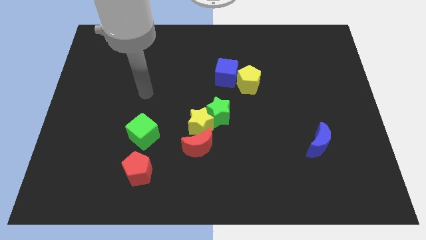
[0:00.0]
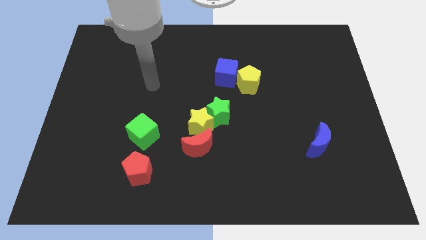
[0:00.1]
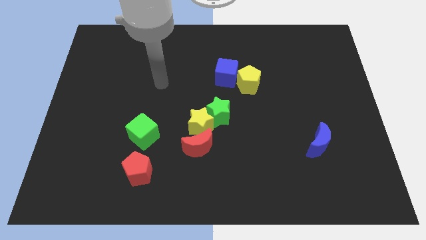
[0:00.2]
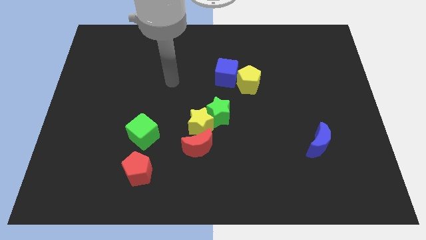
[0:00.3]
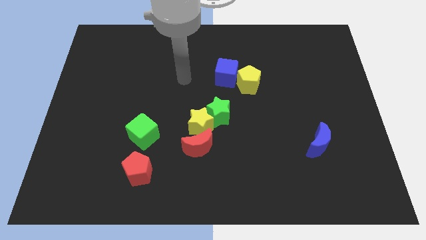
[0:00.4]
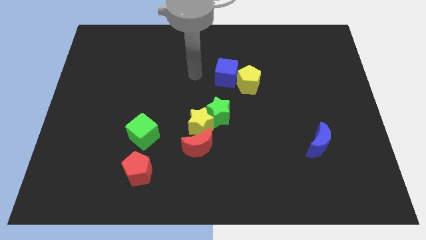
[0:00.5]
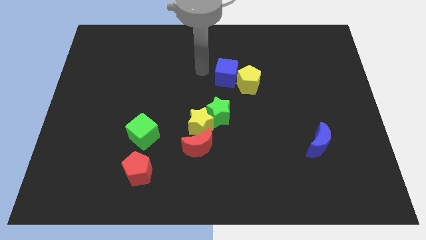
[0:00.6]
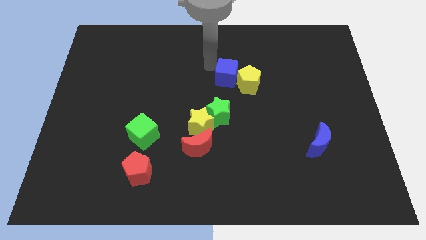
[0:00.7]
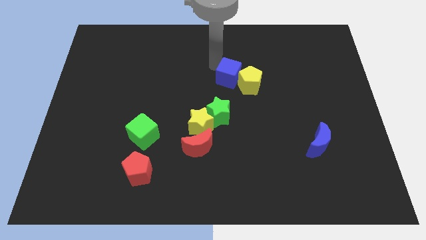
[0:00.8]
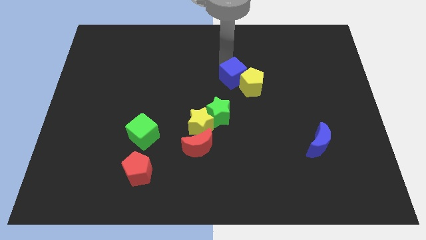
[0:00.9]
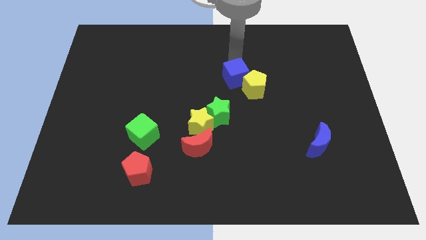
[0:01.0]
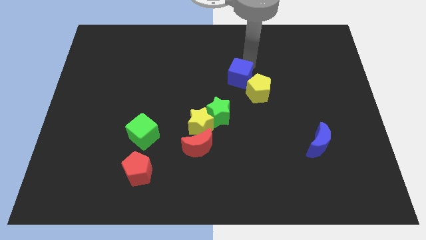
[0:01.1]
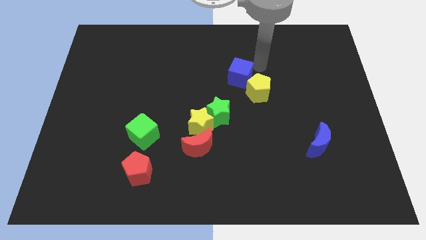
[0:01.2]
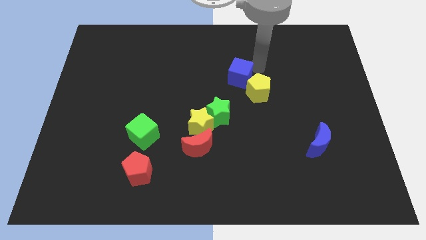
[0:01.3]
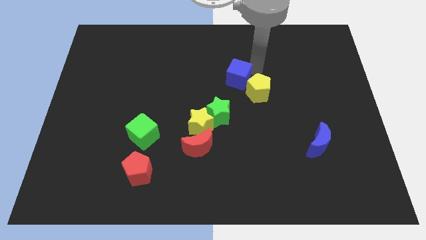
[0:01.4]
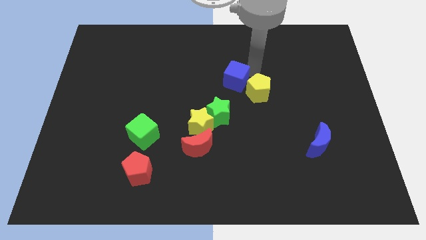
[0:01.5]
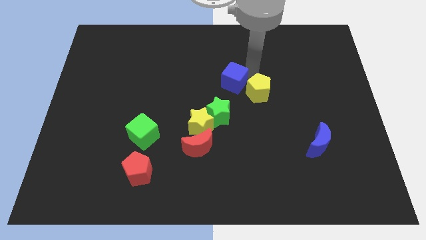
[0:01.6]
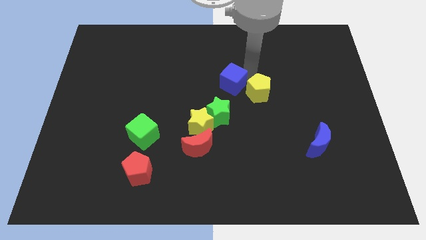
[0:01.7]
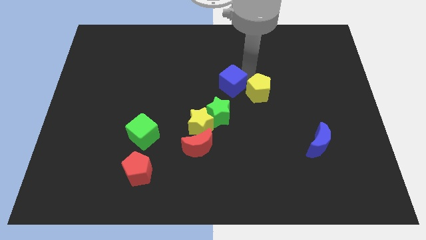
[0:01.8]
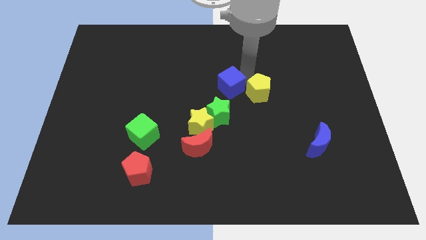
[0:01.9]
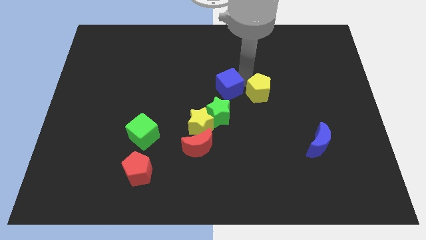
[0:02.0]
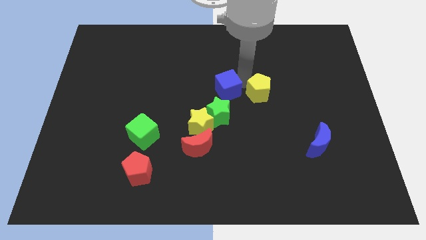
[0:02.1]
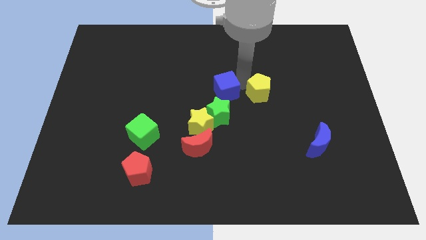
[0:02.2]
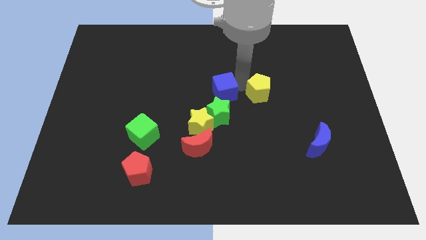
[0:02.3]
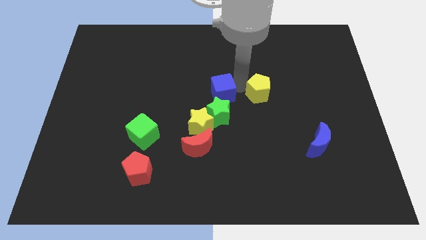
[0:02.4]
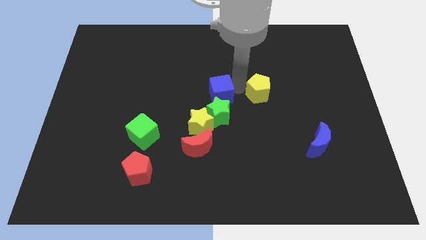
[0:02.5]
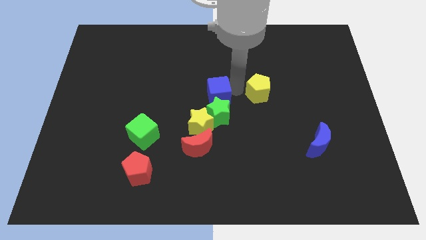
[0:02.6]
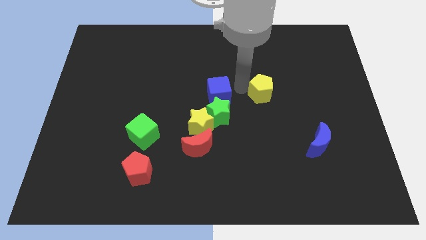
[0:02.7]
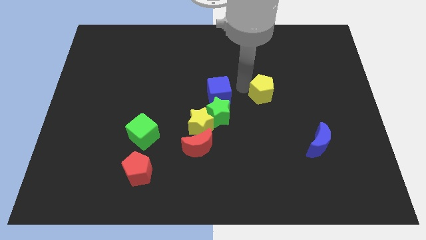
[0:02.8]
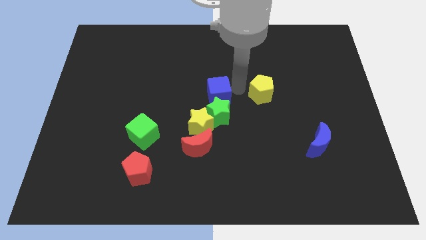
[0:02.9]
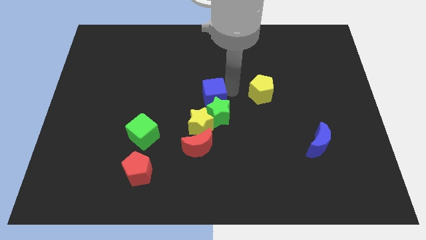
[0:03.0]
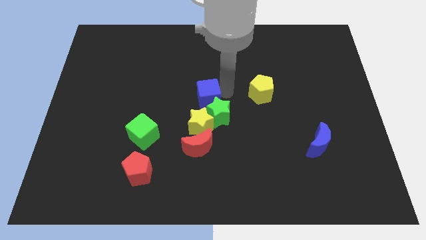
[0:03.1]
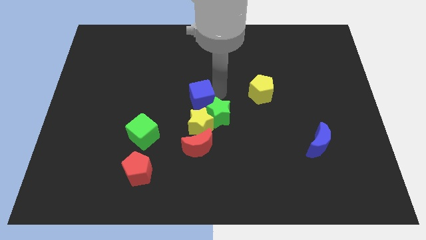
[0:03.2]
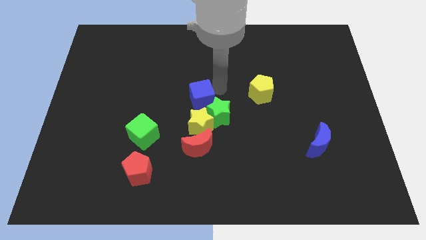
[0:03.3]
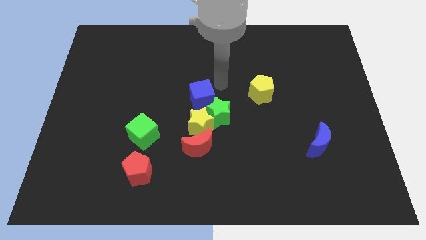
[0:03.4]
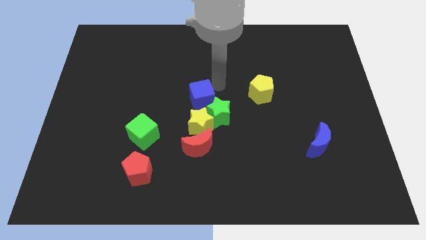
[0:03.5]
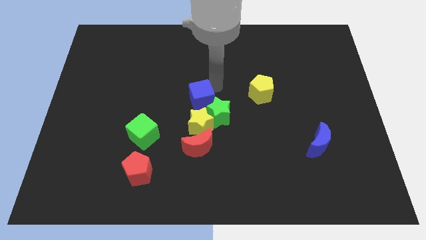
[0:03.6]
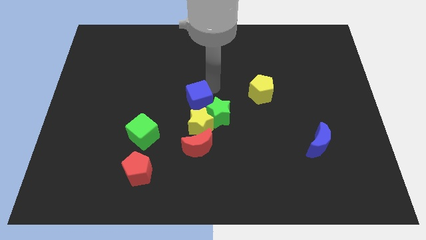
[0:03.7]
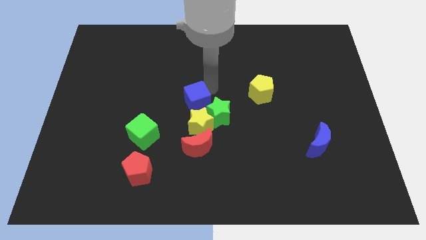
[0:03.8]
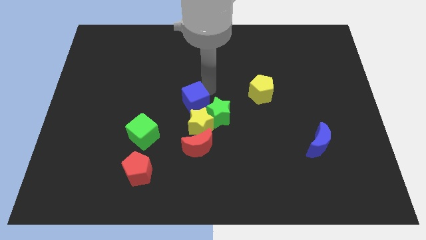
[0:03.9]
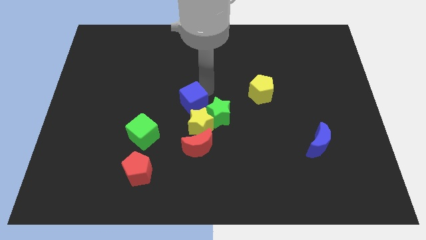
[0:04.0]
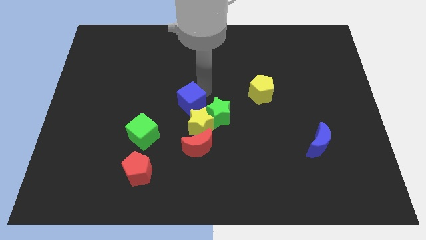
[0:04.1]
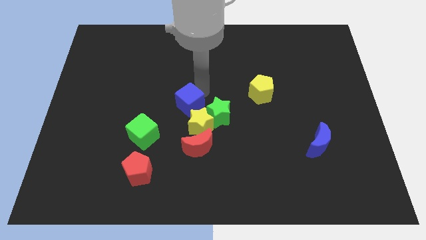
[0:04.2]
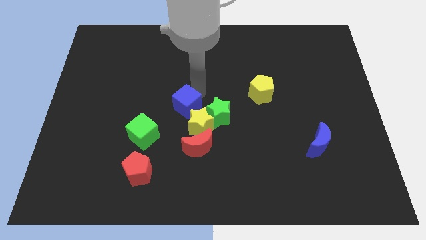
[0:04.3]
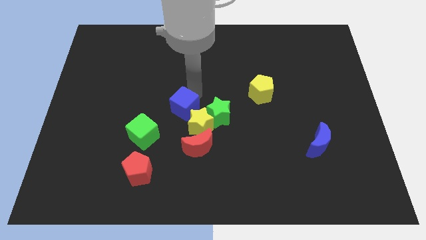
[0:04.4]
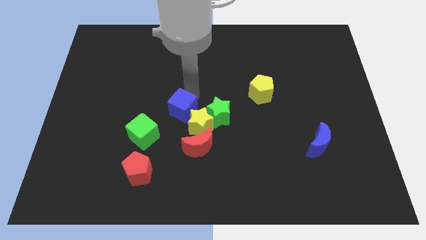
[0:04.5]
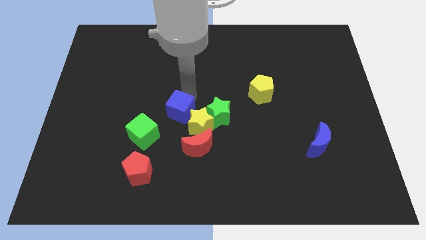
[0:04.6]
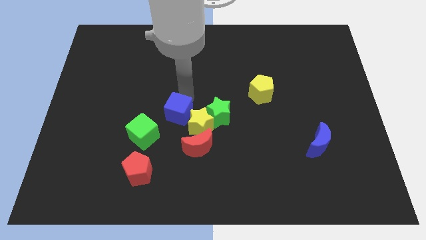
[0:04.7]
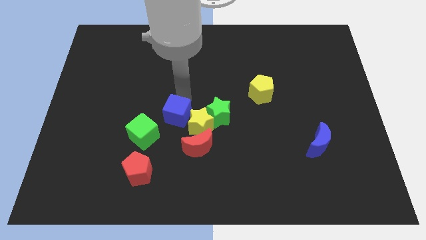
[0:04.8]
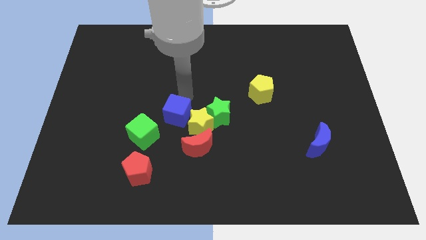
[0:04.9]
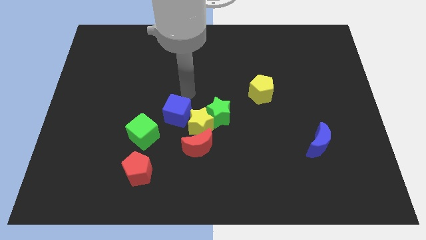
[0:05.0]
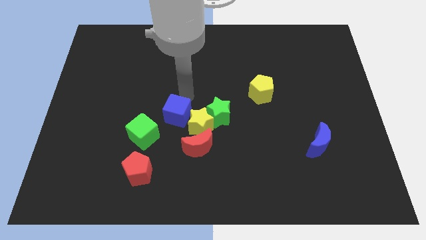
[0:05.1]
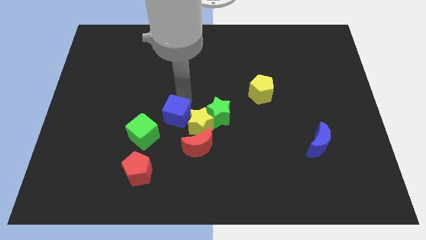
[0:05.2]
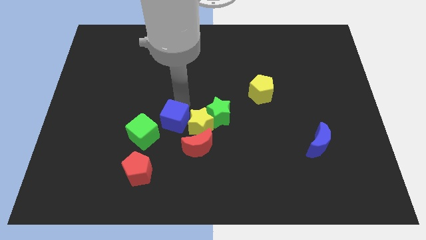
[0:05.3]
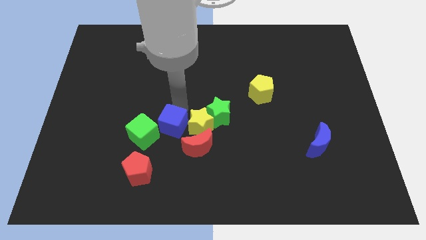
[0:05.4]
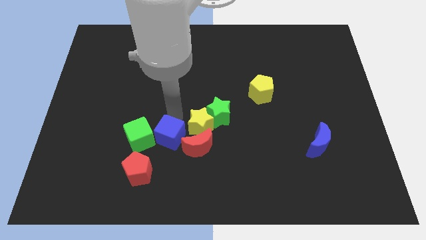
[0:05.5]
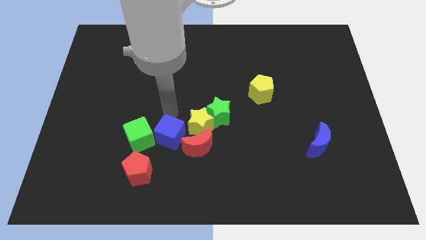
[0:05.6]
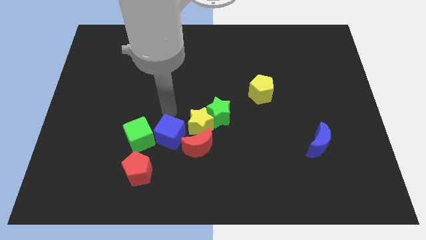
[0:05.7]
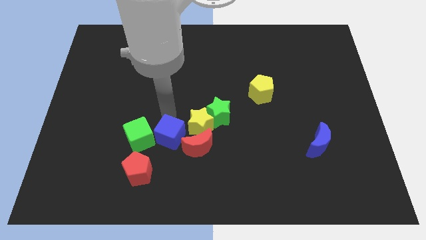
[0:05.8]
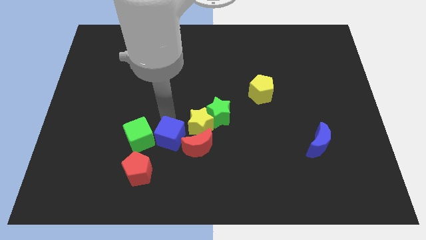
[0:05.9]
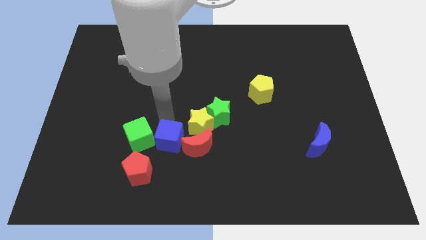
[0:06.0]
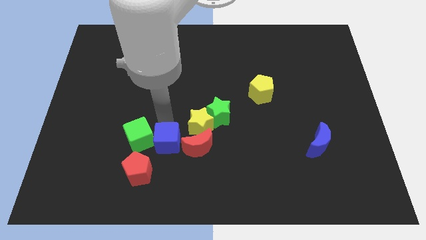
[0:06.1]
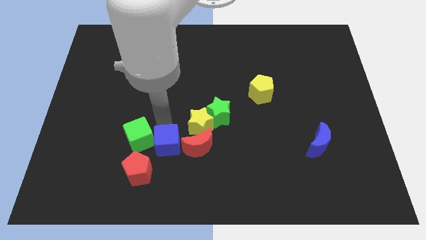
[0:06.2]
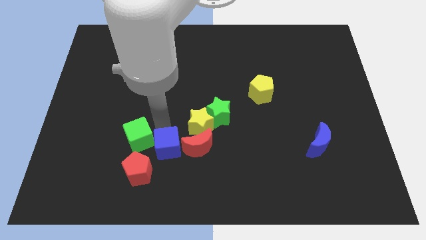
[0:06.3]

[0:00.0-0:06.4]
move the blue cube to the bottom left side of the red moon

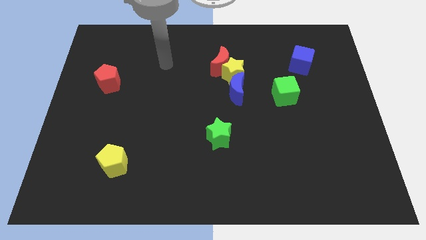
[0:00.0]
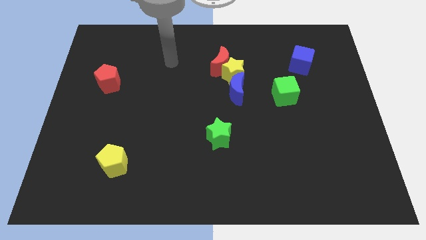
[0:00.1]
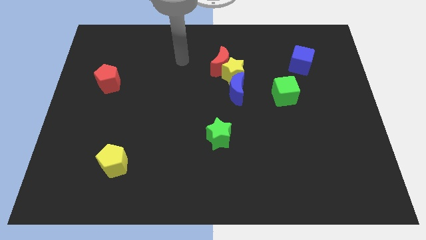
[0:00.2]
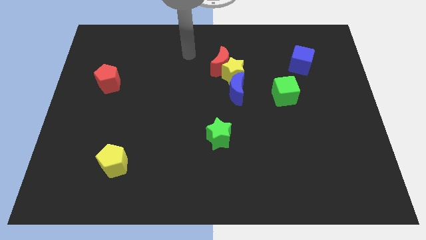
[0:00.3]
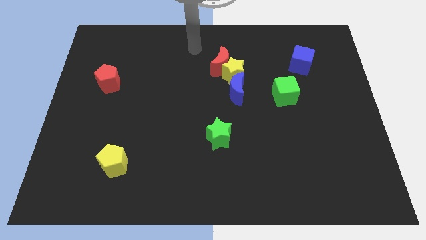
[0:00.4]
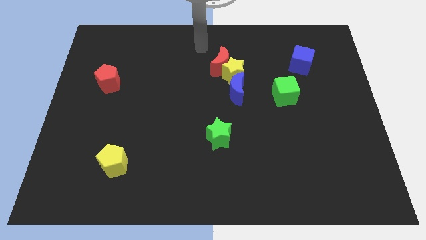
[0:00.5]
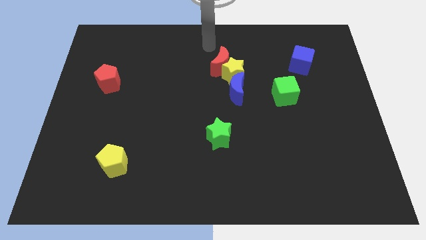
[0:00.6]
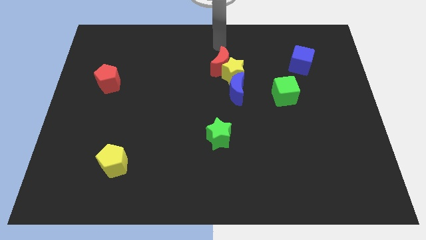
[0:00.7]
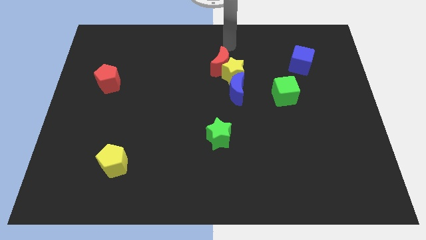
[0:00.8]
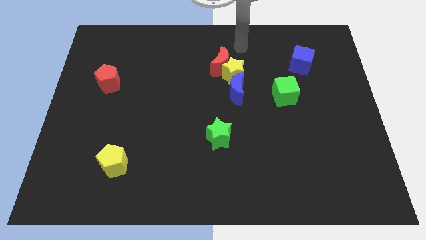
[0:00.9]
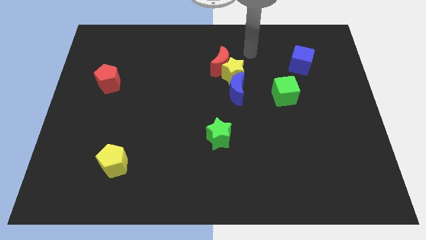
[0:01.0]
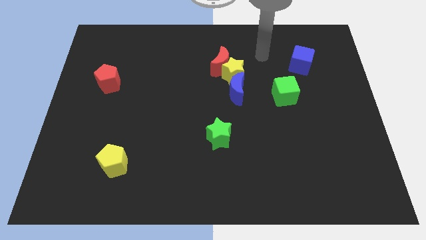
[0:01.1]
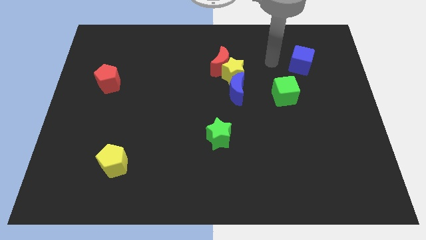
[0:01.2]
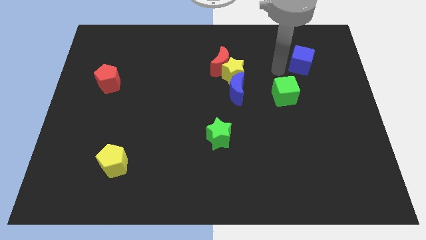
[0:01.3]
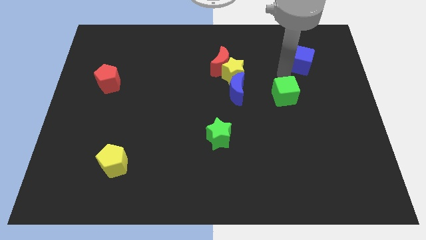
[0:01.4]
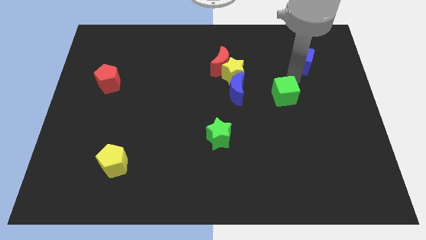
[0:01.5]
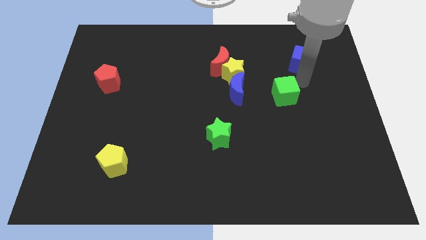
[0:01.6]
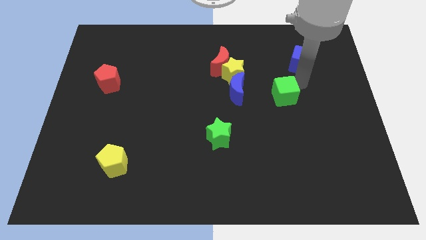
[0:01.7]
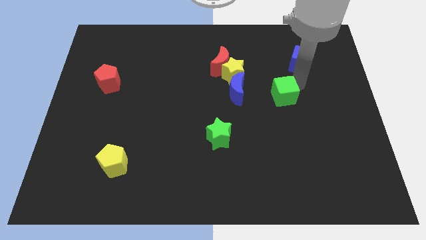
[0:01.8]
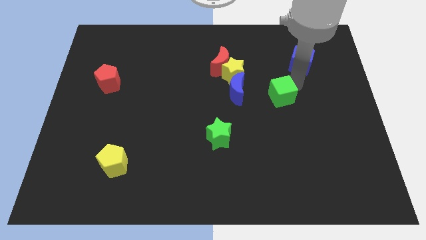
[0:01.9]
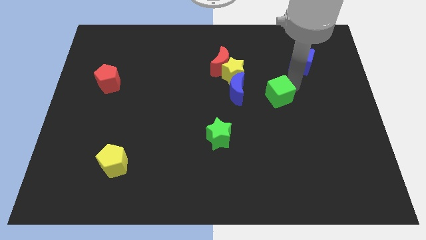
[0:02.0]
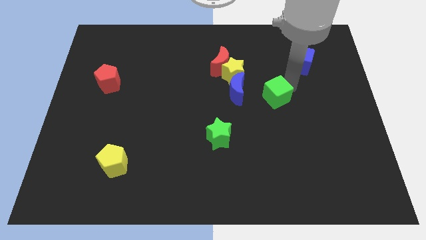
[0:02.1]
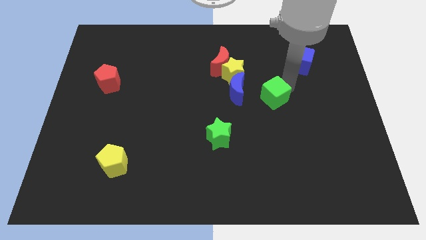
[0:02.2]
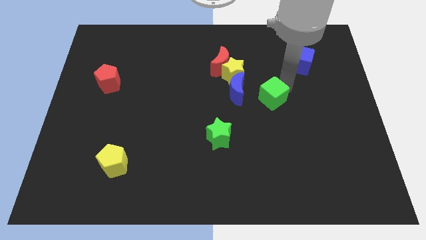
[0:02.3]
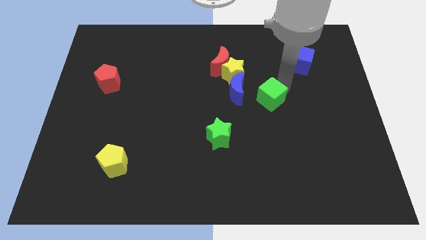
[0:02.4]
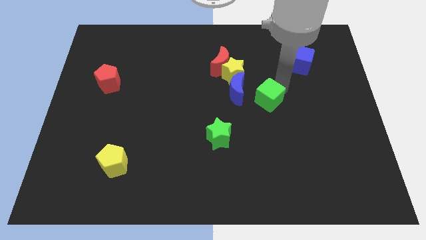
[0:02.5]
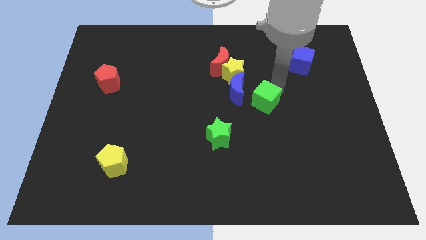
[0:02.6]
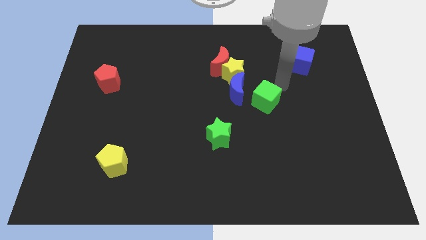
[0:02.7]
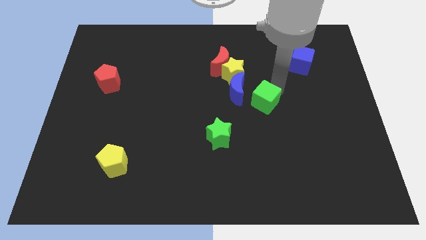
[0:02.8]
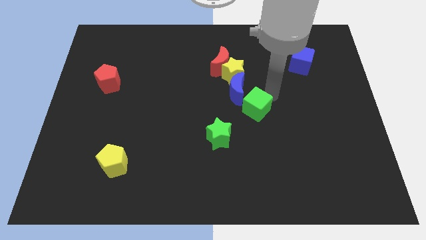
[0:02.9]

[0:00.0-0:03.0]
slide the green cube below the blue moon
